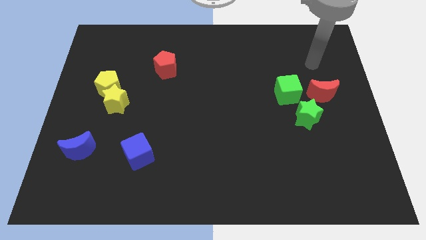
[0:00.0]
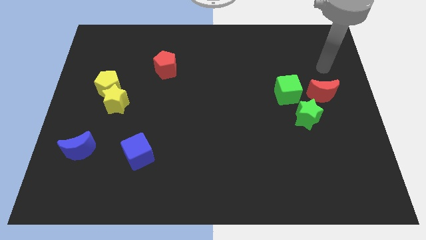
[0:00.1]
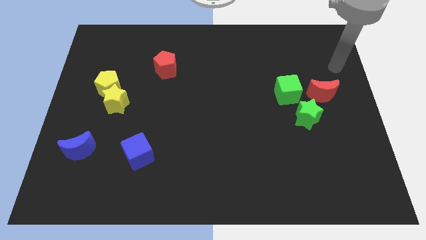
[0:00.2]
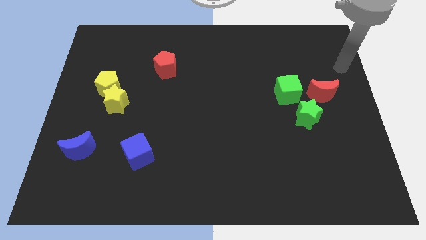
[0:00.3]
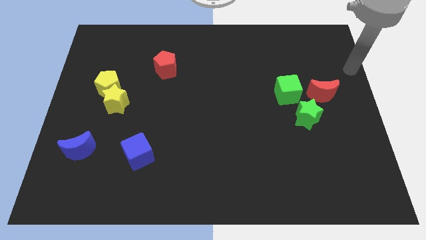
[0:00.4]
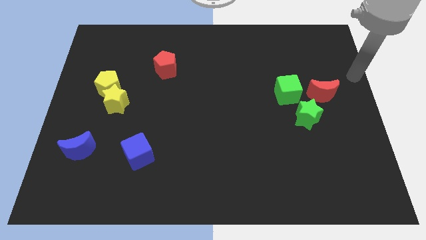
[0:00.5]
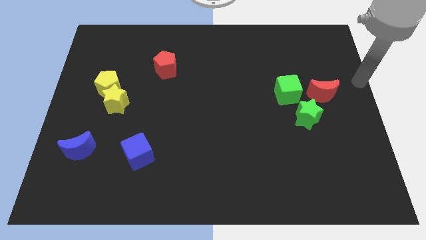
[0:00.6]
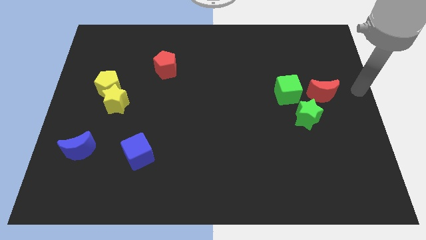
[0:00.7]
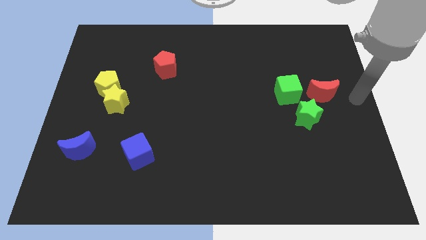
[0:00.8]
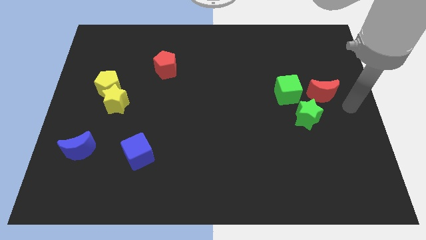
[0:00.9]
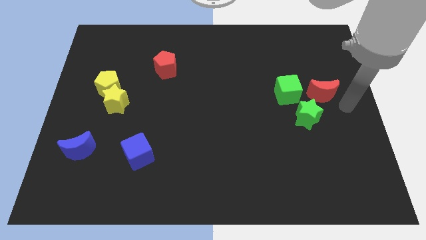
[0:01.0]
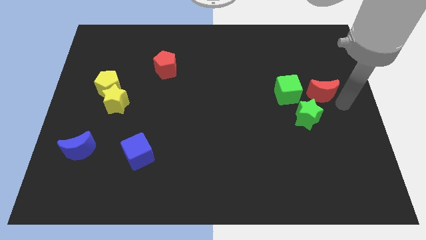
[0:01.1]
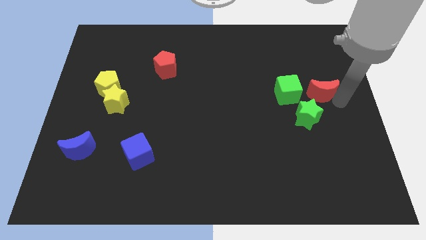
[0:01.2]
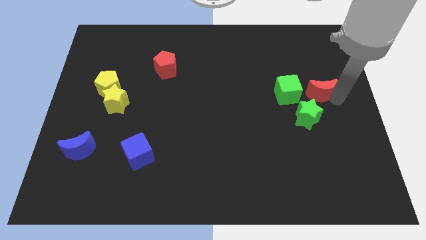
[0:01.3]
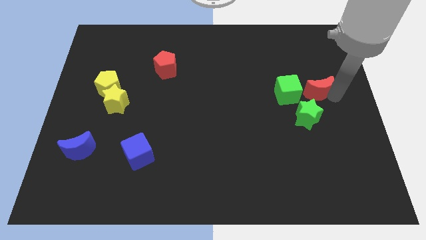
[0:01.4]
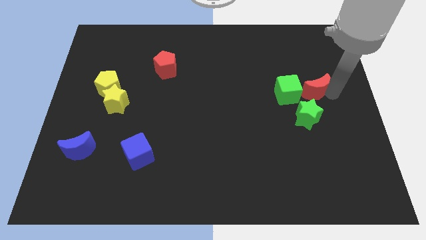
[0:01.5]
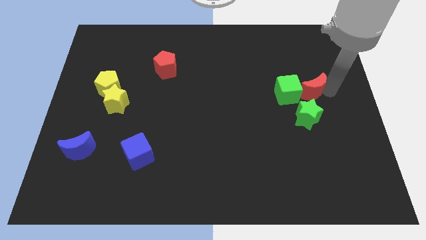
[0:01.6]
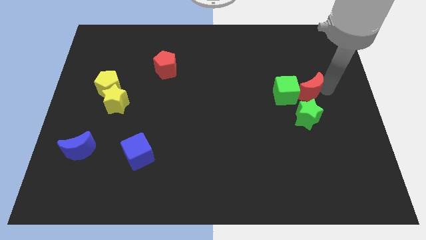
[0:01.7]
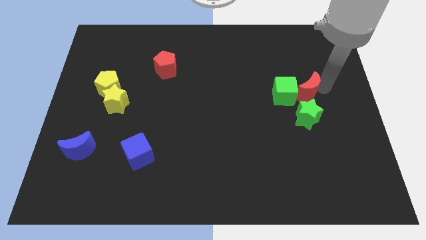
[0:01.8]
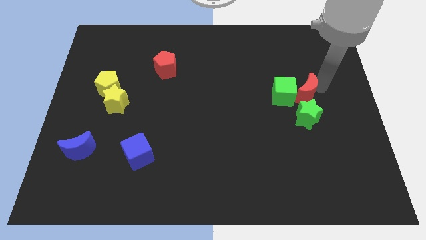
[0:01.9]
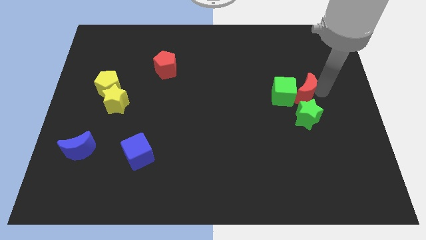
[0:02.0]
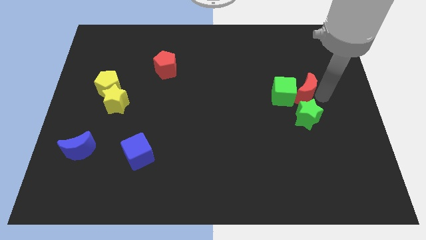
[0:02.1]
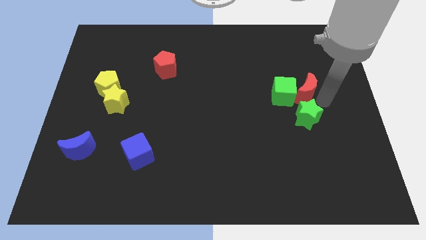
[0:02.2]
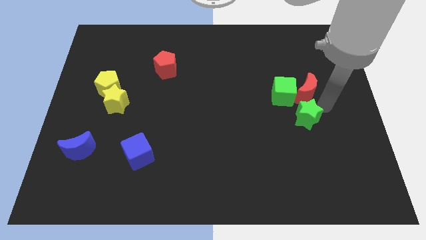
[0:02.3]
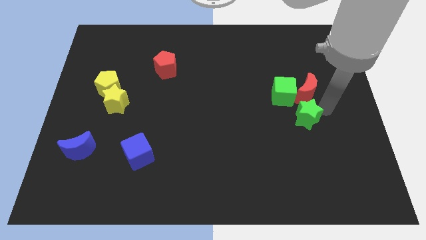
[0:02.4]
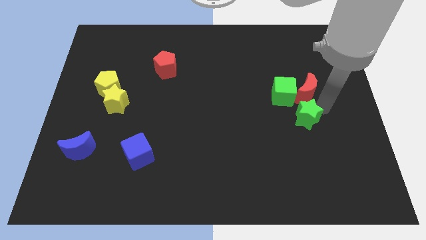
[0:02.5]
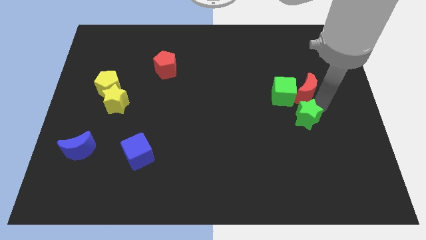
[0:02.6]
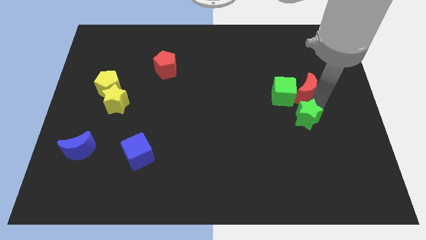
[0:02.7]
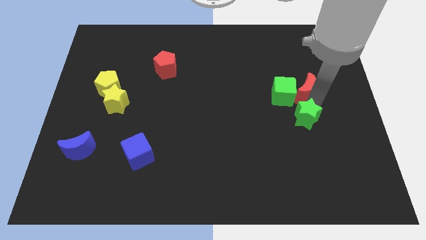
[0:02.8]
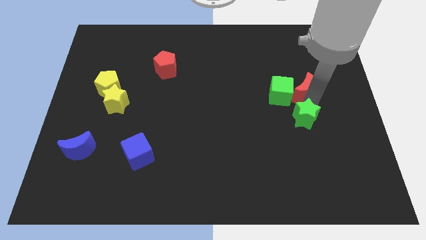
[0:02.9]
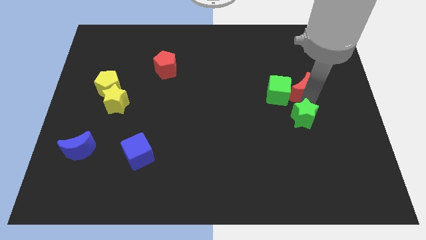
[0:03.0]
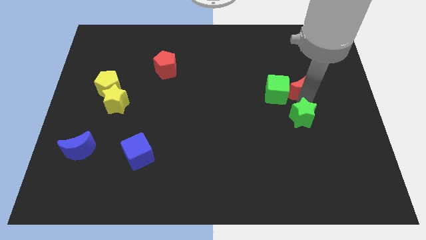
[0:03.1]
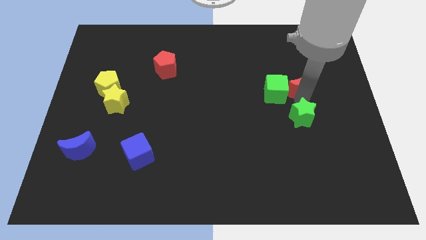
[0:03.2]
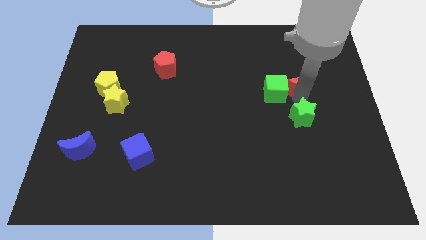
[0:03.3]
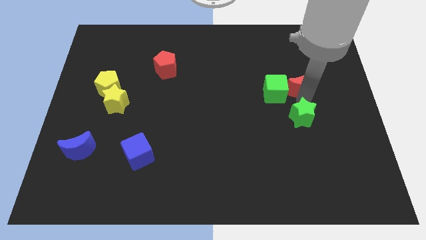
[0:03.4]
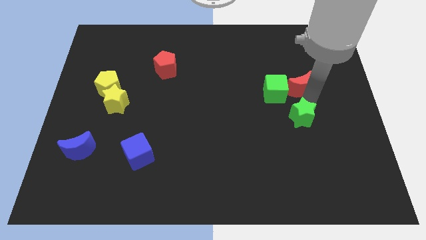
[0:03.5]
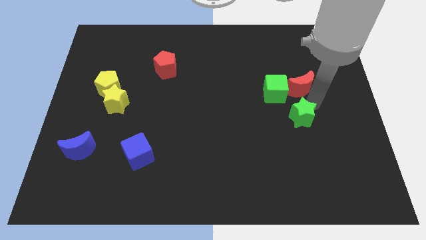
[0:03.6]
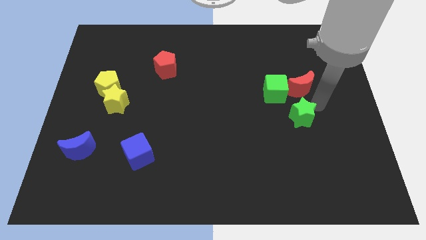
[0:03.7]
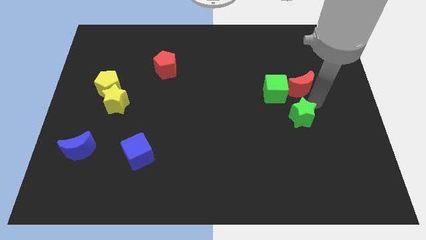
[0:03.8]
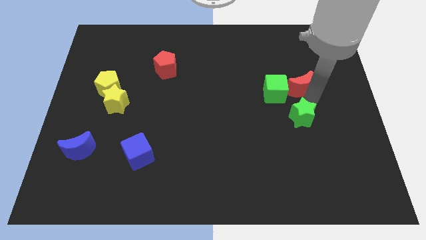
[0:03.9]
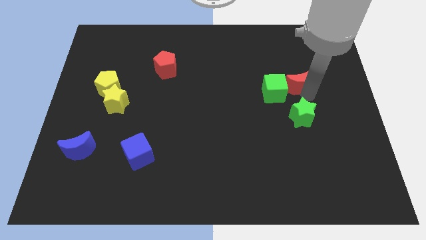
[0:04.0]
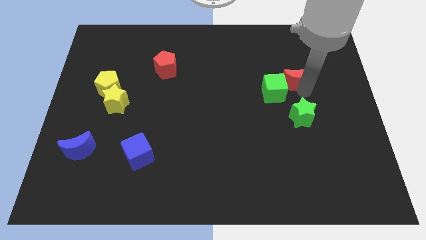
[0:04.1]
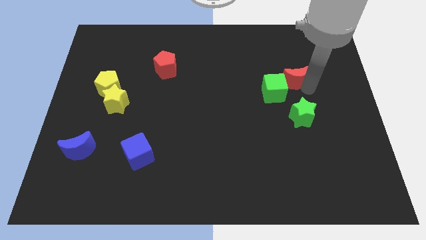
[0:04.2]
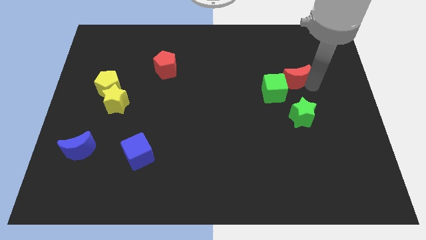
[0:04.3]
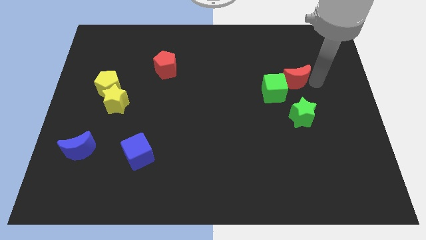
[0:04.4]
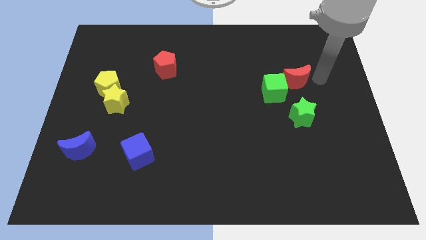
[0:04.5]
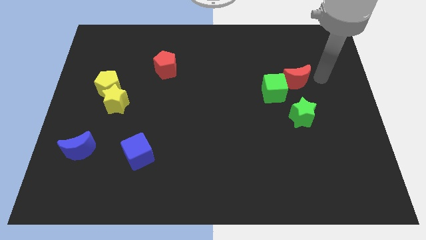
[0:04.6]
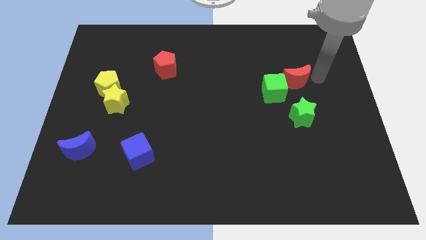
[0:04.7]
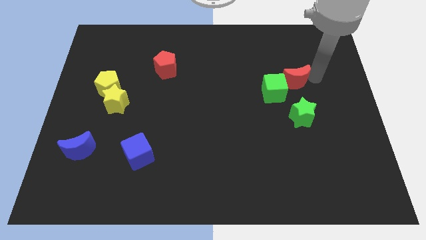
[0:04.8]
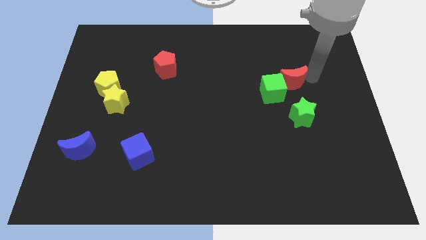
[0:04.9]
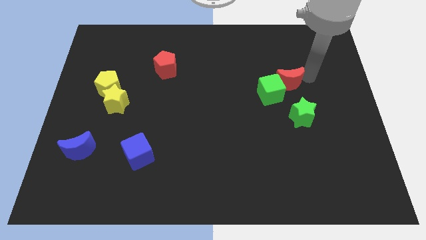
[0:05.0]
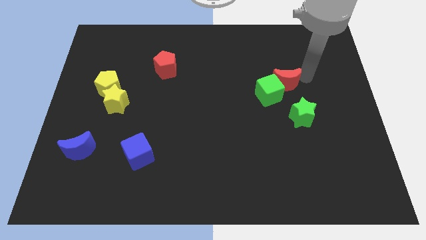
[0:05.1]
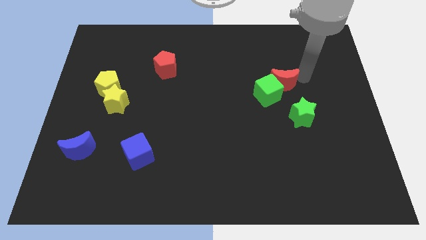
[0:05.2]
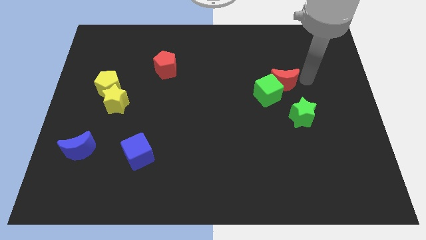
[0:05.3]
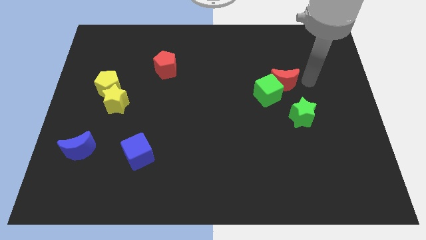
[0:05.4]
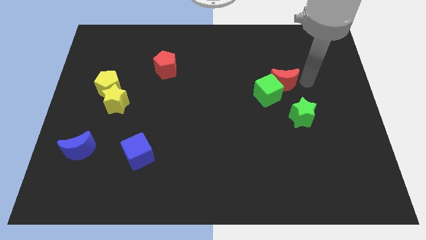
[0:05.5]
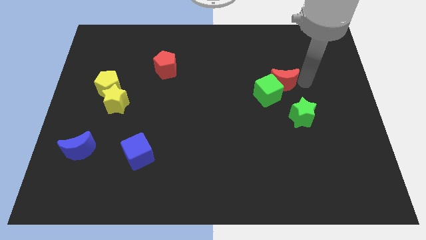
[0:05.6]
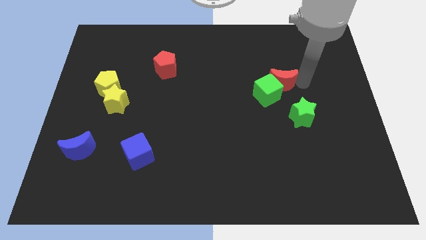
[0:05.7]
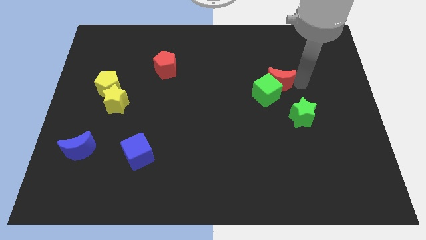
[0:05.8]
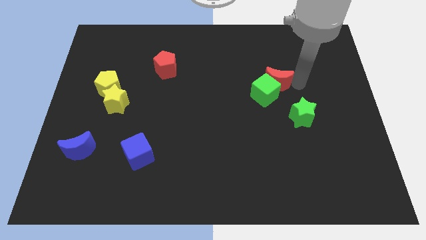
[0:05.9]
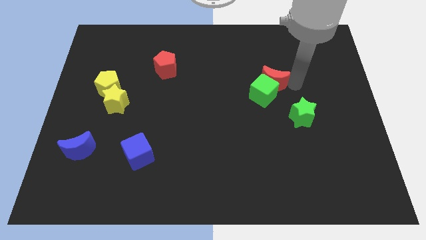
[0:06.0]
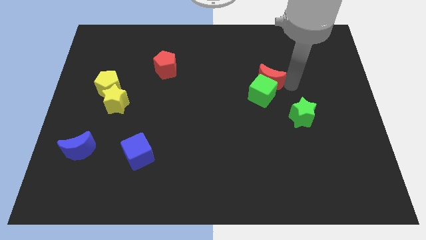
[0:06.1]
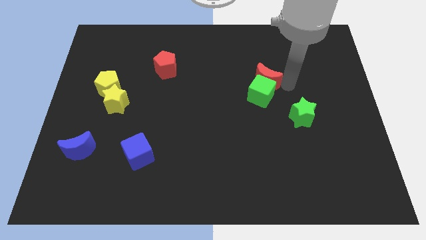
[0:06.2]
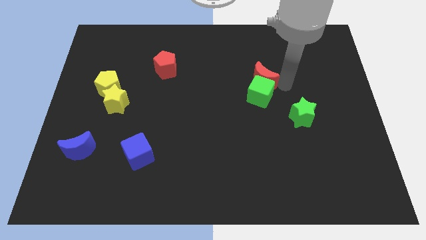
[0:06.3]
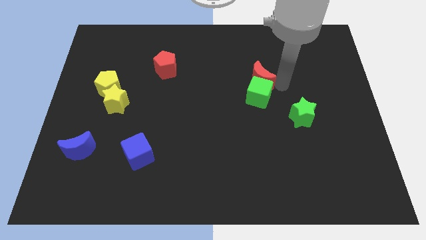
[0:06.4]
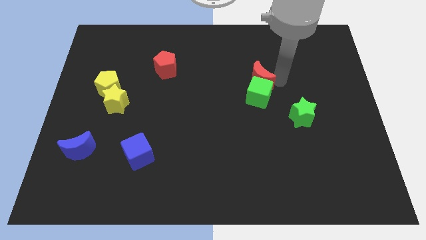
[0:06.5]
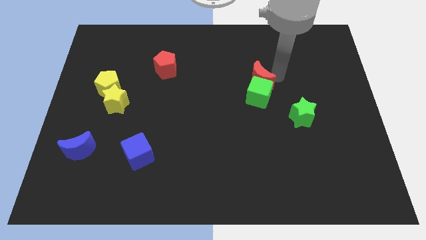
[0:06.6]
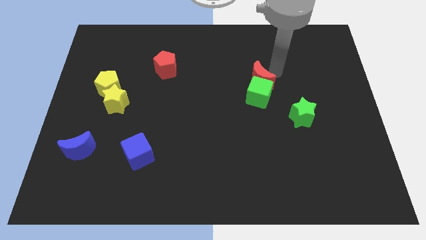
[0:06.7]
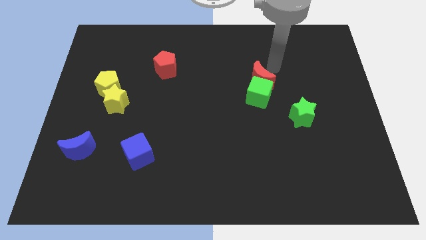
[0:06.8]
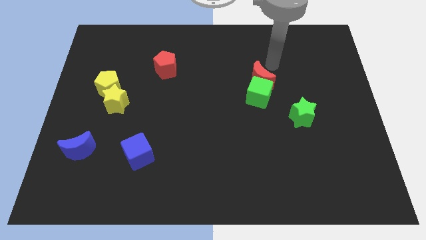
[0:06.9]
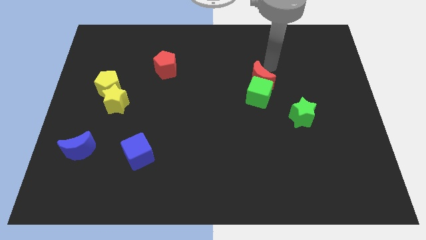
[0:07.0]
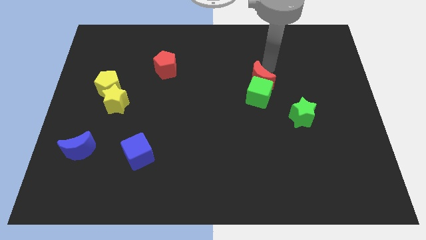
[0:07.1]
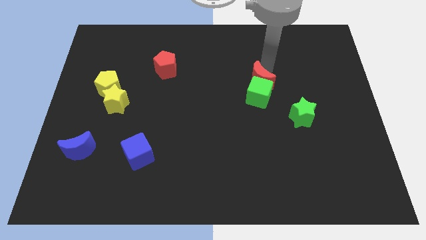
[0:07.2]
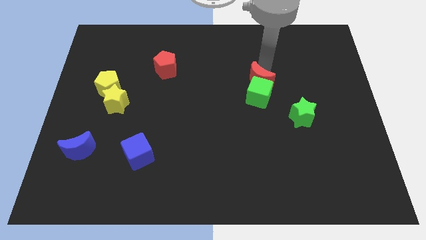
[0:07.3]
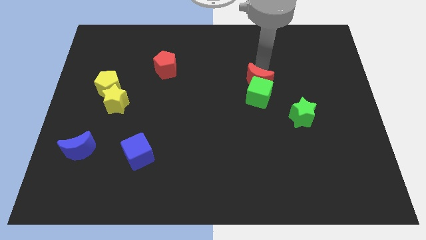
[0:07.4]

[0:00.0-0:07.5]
put the red moon to the middle
